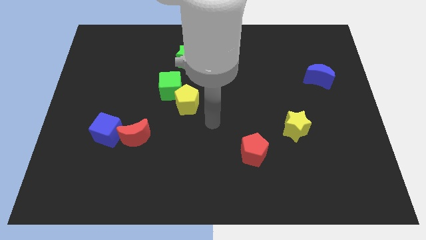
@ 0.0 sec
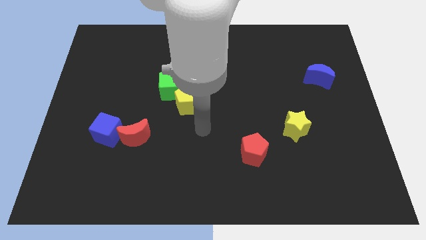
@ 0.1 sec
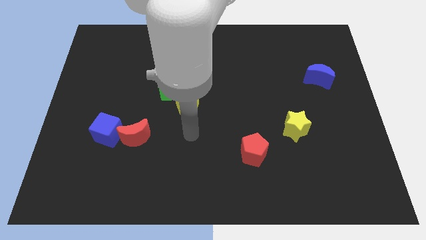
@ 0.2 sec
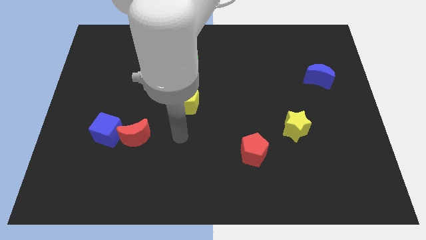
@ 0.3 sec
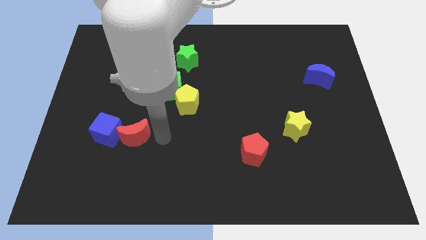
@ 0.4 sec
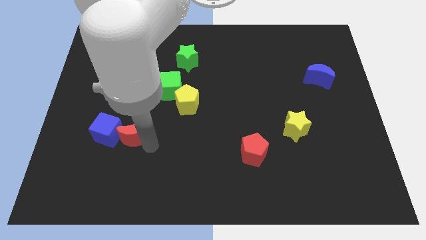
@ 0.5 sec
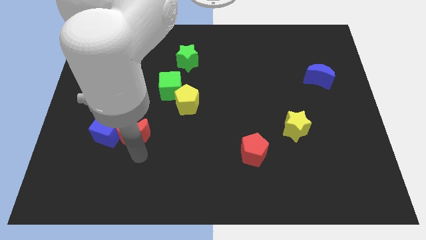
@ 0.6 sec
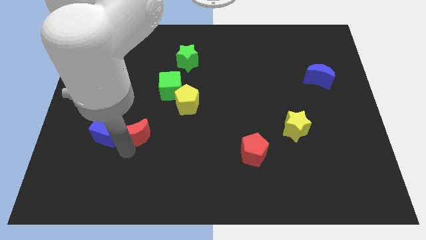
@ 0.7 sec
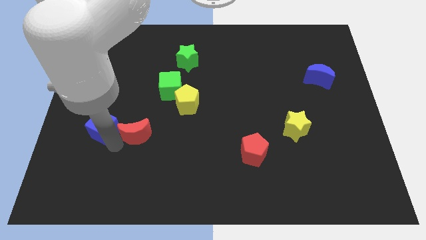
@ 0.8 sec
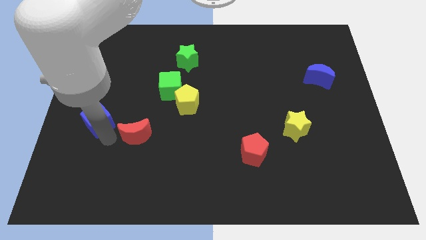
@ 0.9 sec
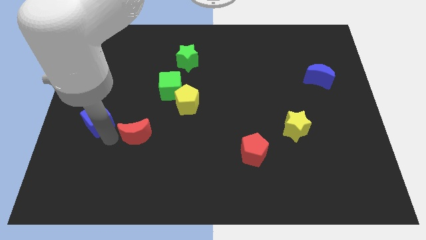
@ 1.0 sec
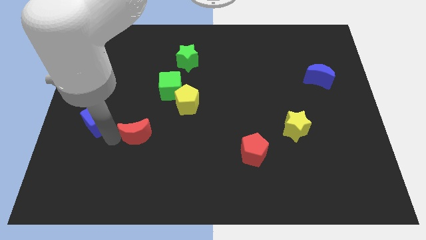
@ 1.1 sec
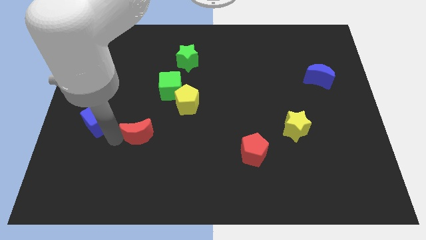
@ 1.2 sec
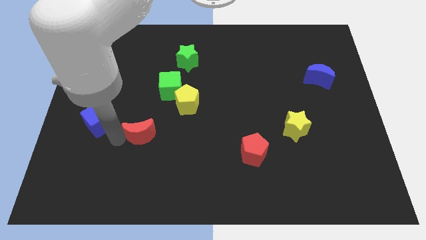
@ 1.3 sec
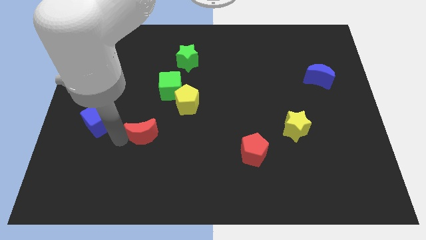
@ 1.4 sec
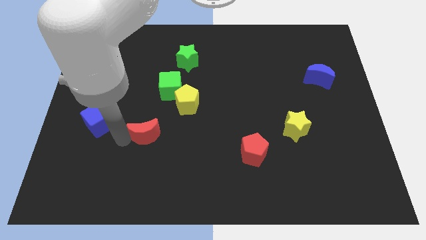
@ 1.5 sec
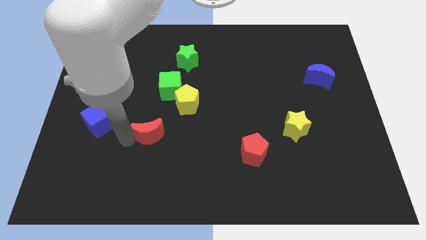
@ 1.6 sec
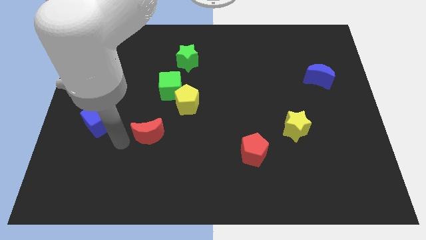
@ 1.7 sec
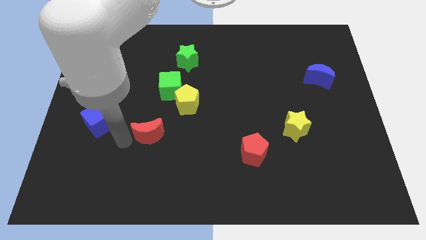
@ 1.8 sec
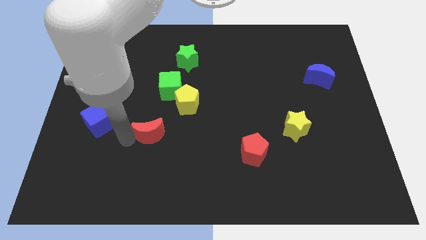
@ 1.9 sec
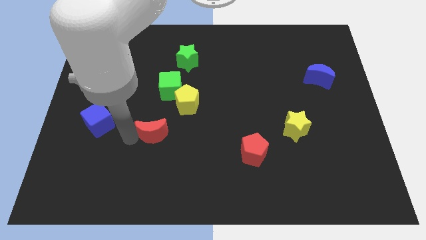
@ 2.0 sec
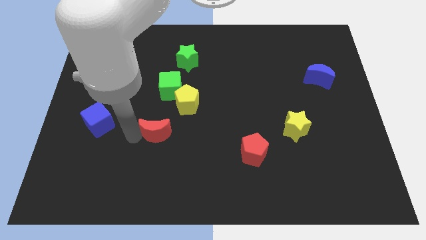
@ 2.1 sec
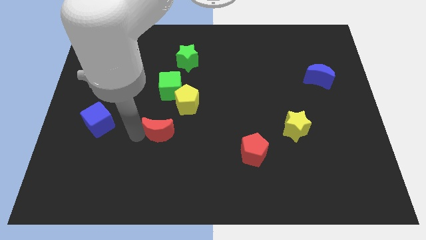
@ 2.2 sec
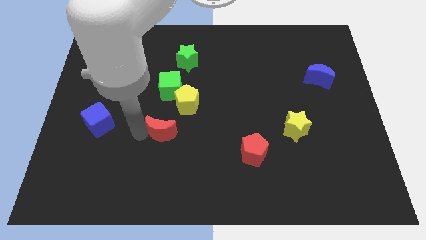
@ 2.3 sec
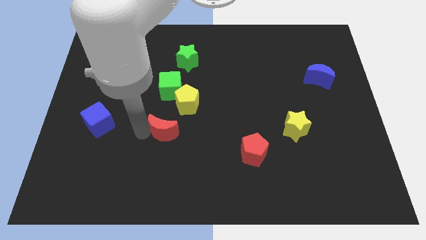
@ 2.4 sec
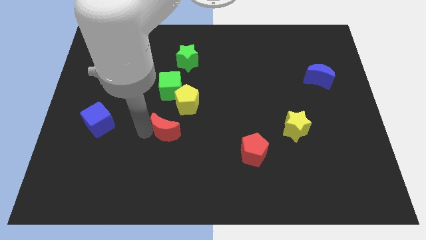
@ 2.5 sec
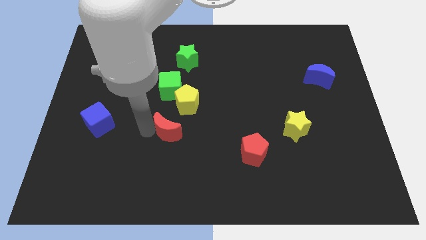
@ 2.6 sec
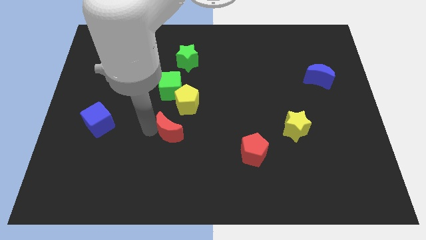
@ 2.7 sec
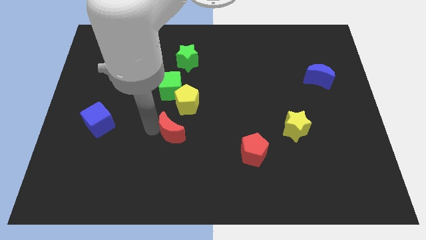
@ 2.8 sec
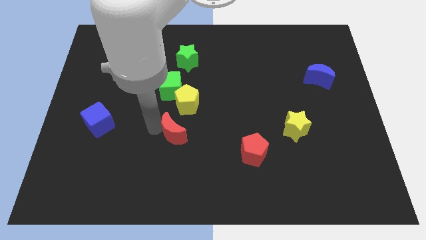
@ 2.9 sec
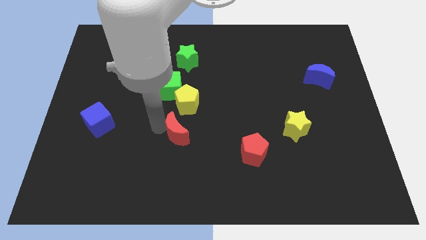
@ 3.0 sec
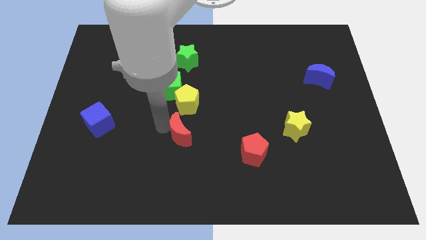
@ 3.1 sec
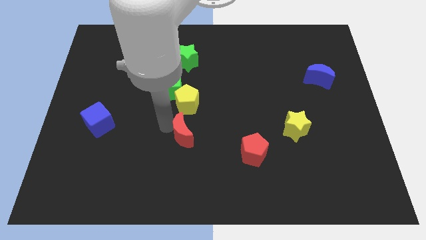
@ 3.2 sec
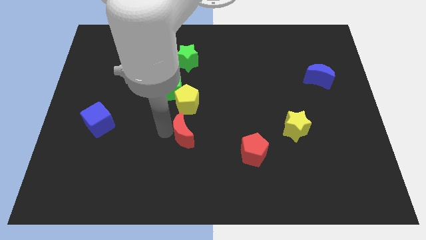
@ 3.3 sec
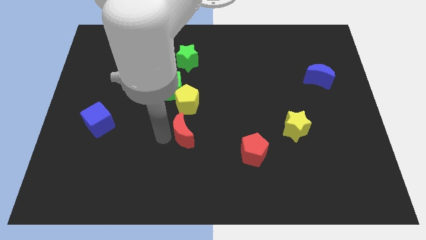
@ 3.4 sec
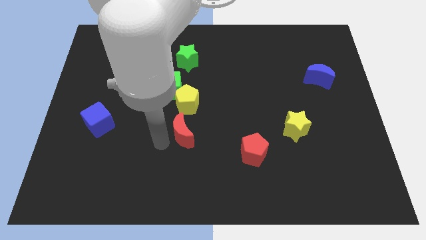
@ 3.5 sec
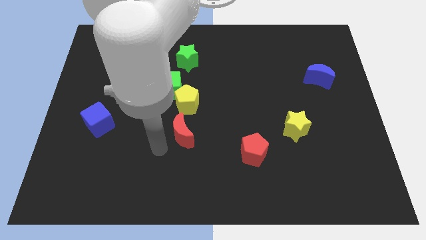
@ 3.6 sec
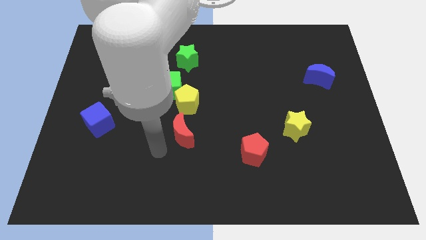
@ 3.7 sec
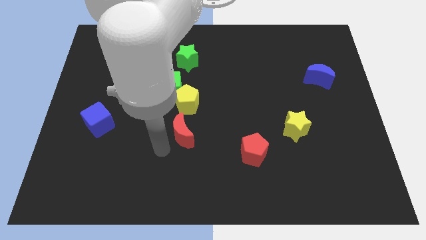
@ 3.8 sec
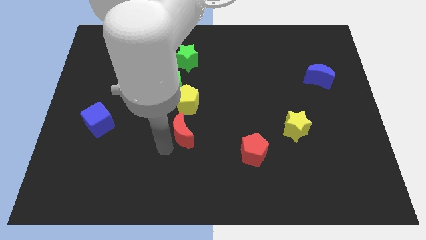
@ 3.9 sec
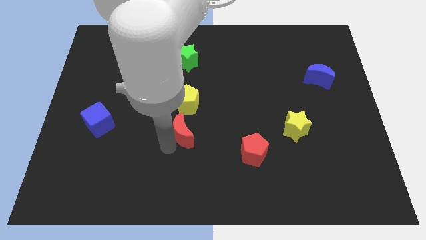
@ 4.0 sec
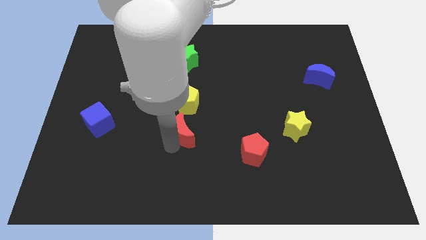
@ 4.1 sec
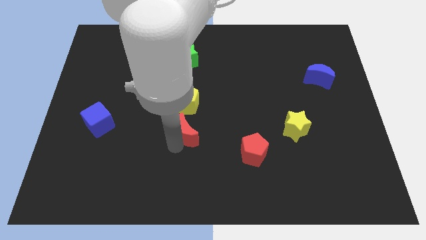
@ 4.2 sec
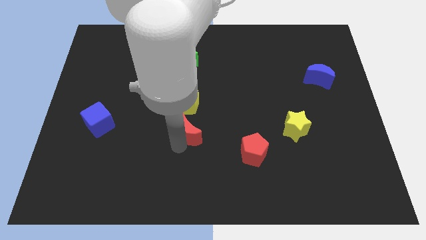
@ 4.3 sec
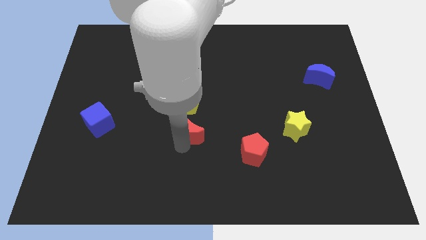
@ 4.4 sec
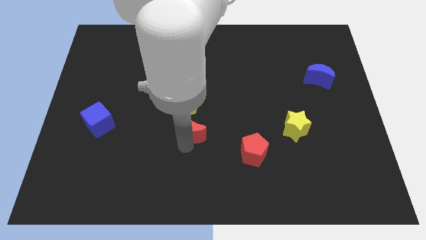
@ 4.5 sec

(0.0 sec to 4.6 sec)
slightly move the red moon up and then to the right

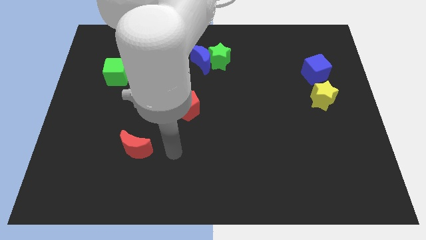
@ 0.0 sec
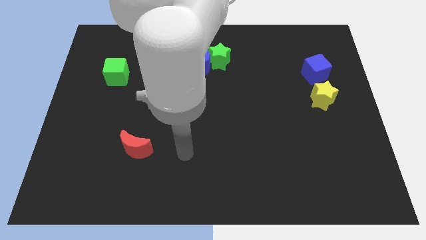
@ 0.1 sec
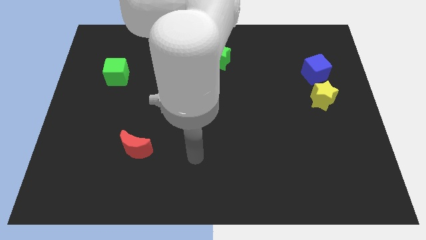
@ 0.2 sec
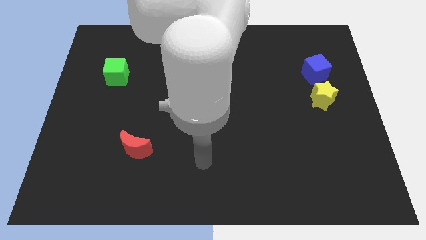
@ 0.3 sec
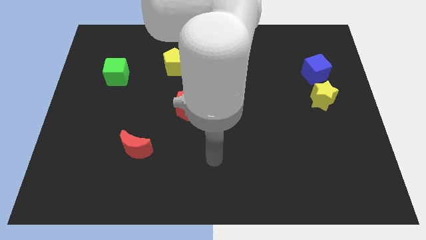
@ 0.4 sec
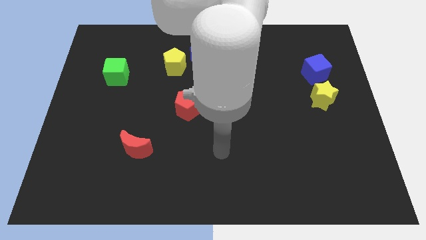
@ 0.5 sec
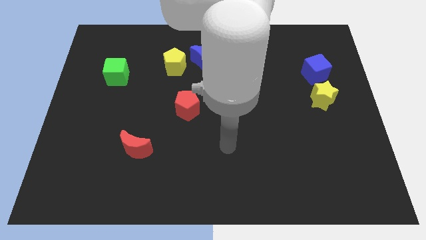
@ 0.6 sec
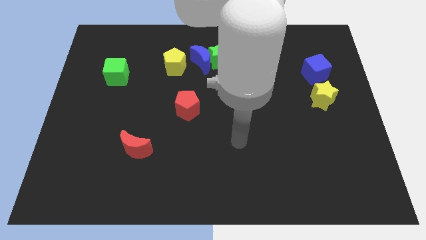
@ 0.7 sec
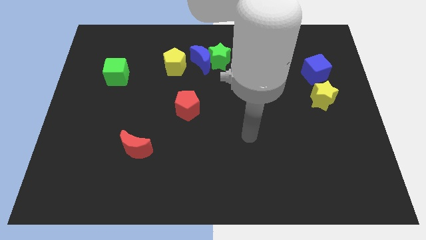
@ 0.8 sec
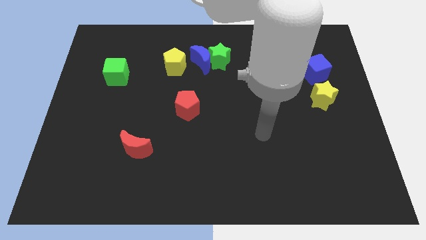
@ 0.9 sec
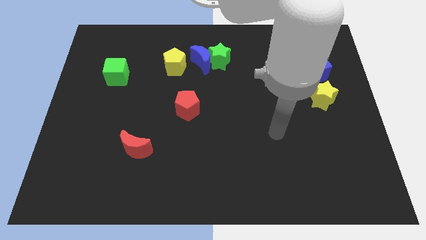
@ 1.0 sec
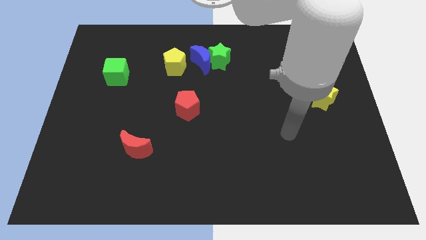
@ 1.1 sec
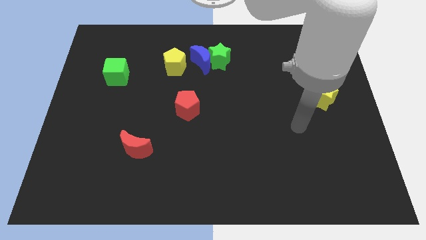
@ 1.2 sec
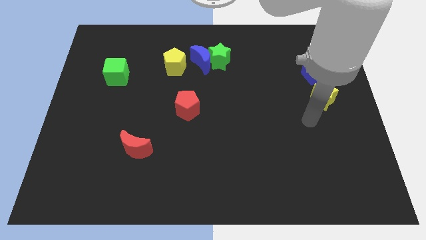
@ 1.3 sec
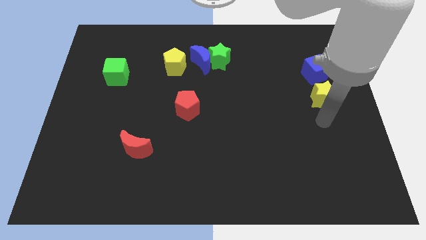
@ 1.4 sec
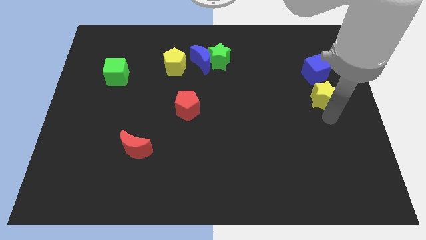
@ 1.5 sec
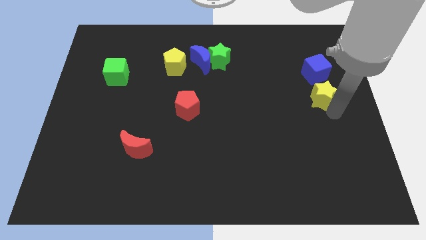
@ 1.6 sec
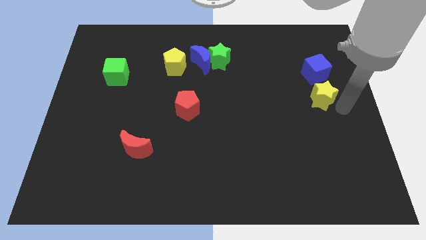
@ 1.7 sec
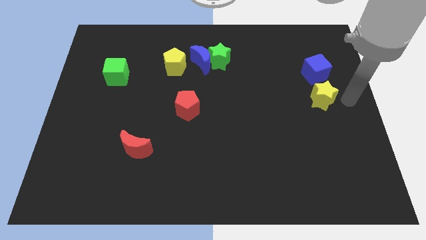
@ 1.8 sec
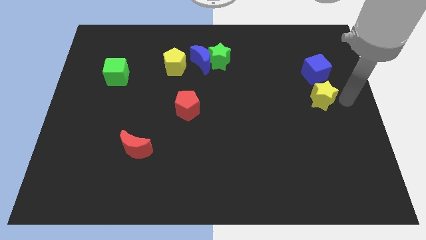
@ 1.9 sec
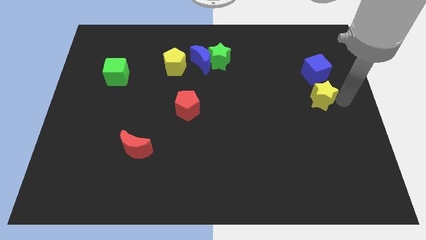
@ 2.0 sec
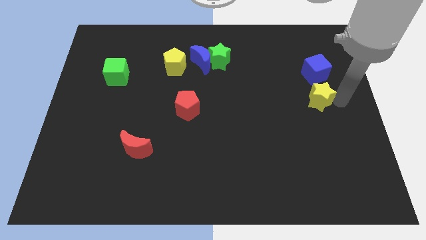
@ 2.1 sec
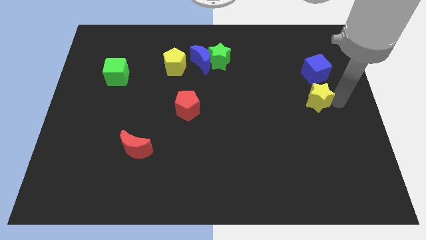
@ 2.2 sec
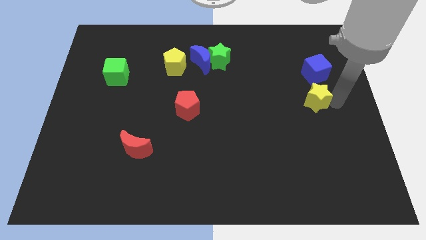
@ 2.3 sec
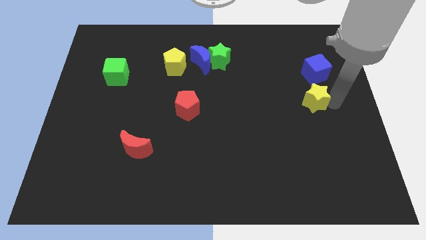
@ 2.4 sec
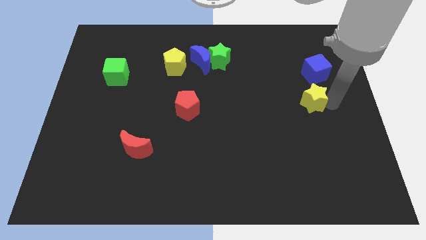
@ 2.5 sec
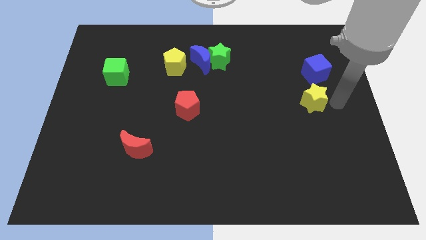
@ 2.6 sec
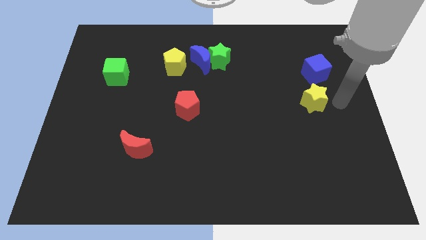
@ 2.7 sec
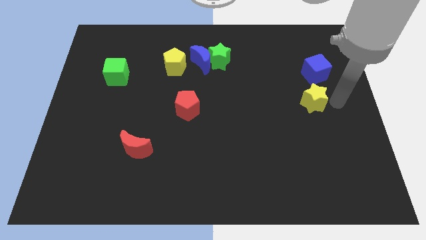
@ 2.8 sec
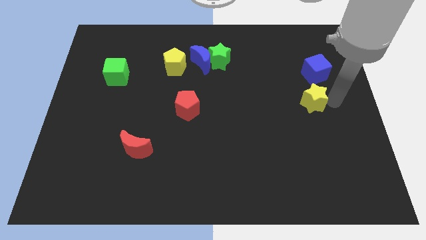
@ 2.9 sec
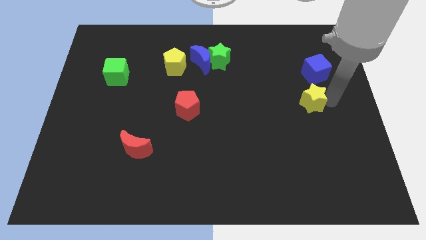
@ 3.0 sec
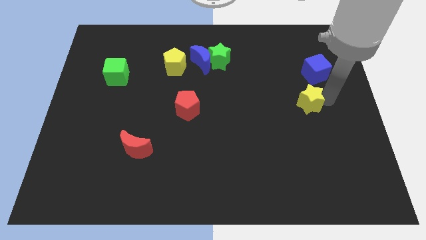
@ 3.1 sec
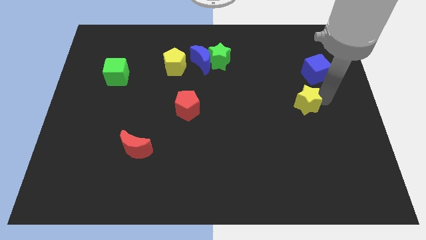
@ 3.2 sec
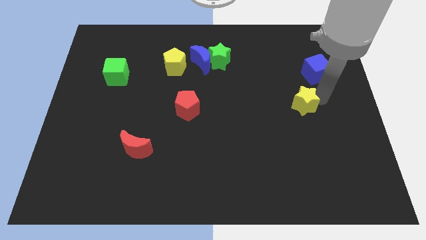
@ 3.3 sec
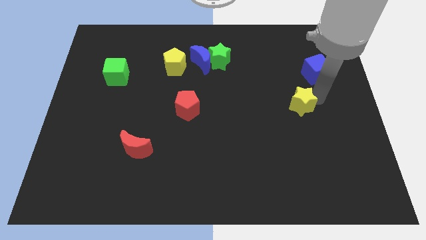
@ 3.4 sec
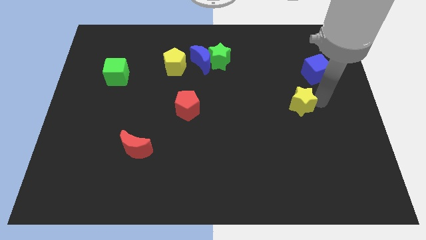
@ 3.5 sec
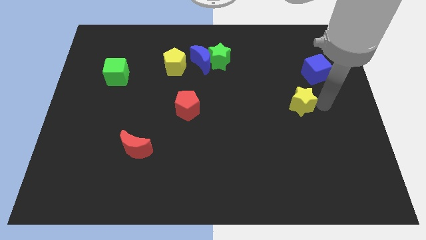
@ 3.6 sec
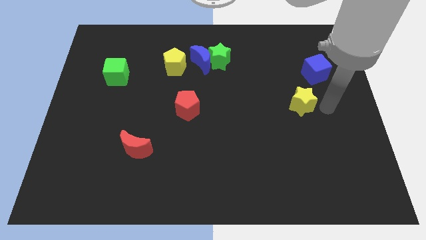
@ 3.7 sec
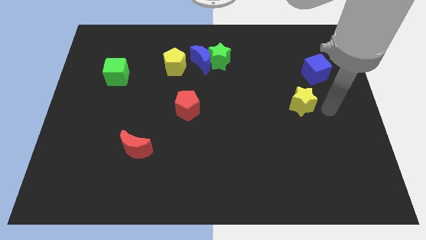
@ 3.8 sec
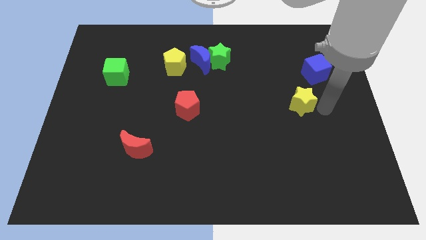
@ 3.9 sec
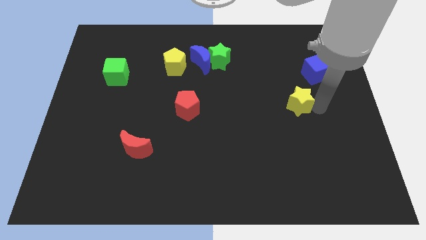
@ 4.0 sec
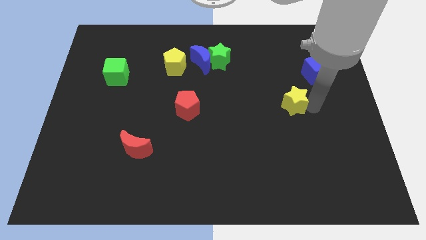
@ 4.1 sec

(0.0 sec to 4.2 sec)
slide the yellow star a little bit to the left
